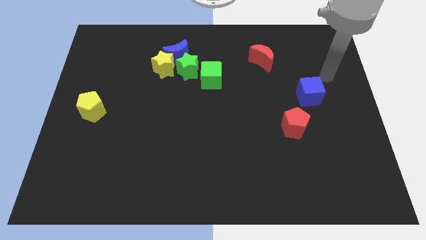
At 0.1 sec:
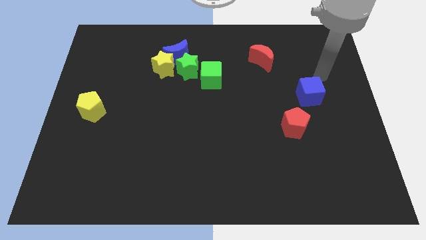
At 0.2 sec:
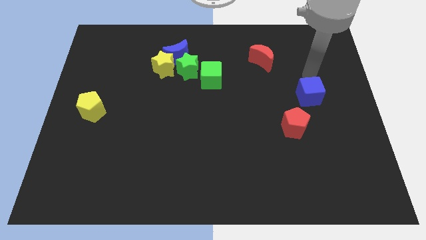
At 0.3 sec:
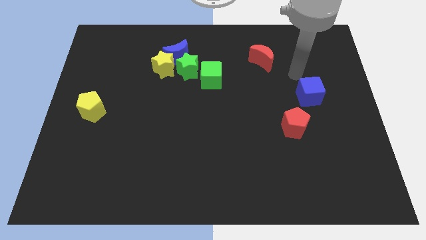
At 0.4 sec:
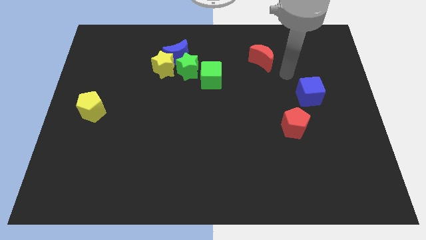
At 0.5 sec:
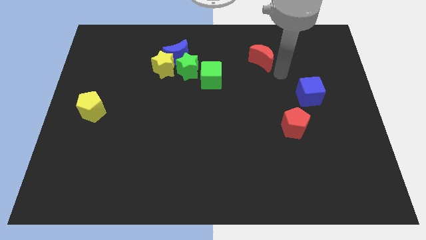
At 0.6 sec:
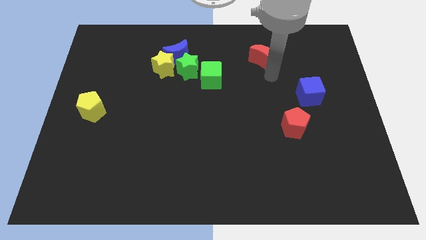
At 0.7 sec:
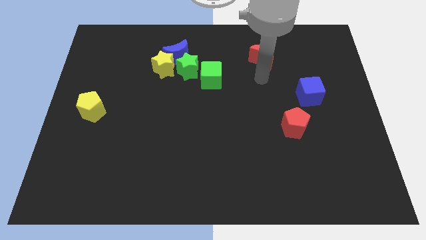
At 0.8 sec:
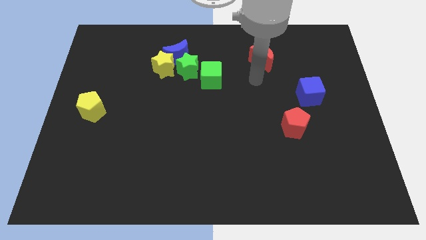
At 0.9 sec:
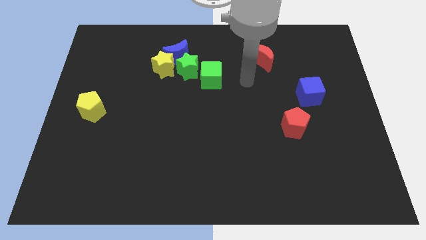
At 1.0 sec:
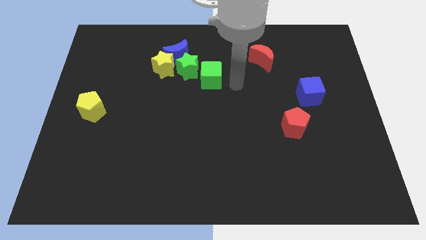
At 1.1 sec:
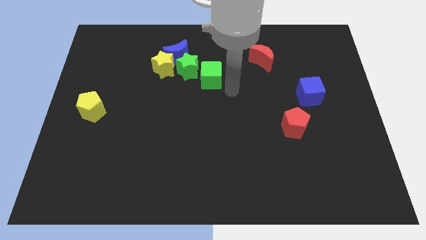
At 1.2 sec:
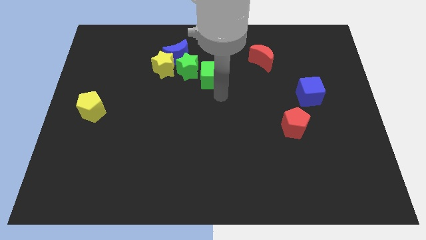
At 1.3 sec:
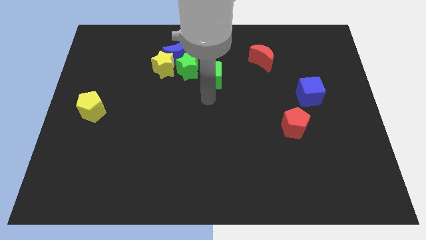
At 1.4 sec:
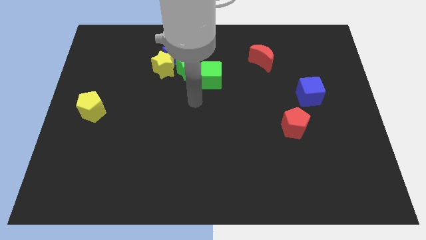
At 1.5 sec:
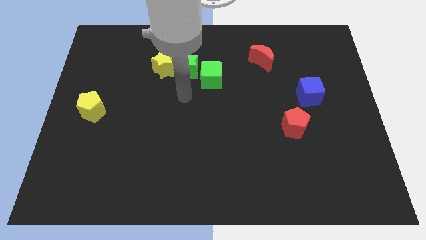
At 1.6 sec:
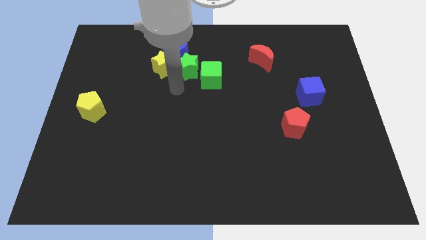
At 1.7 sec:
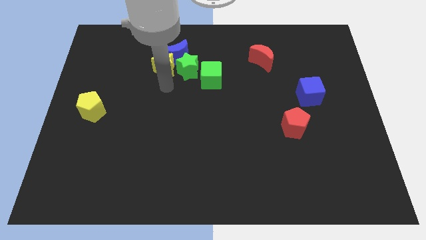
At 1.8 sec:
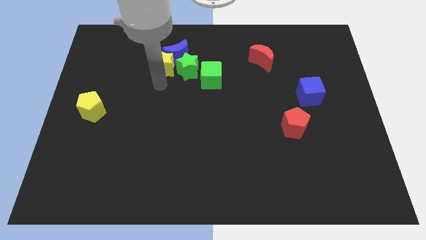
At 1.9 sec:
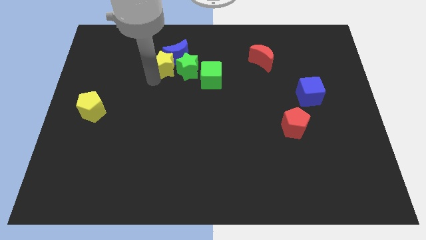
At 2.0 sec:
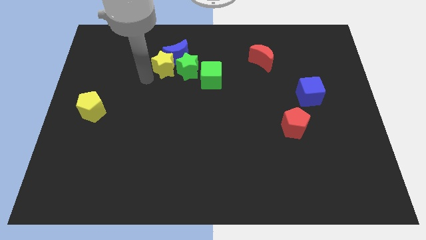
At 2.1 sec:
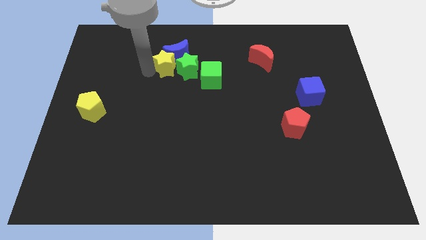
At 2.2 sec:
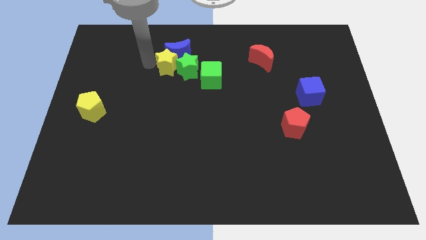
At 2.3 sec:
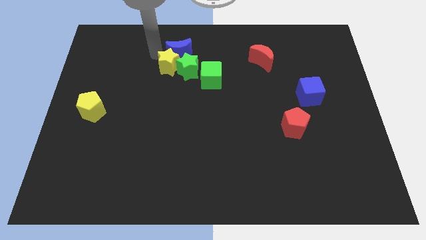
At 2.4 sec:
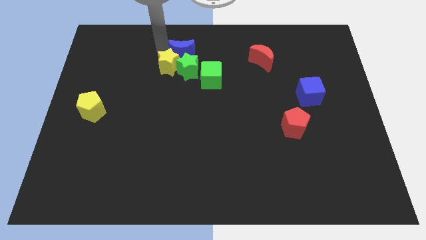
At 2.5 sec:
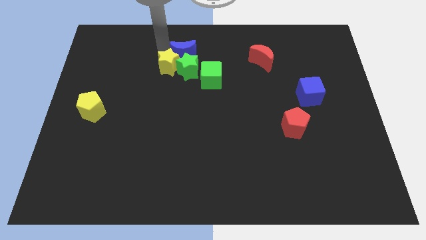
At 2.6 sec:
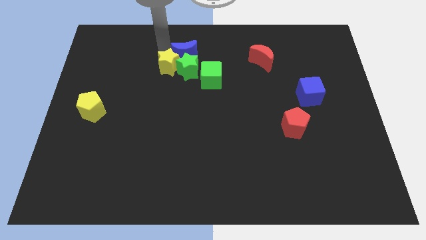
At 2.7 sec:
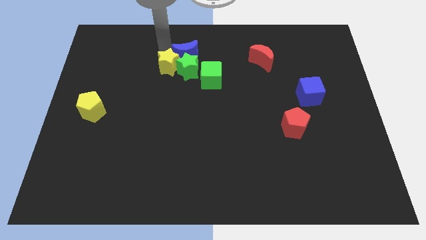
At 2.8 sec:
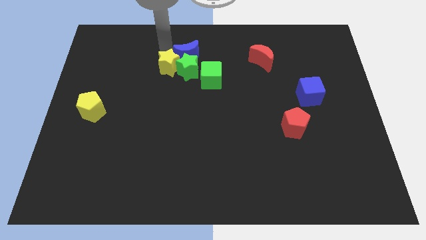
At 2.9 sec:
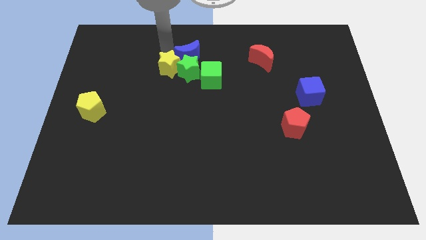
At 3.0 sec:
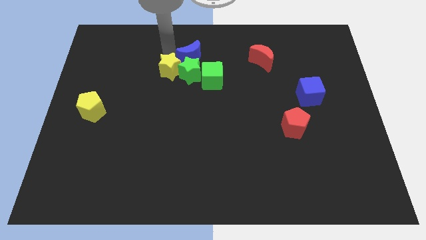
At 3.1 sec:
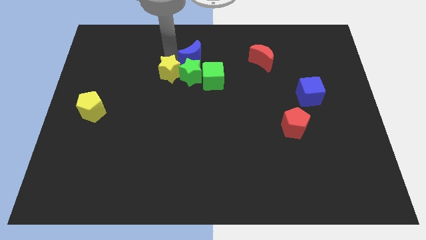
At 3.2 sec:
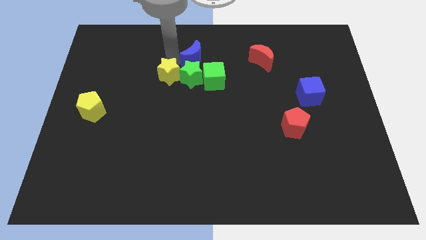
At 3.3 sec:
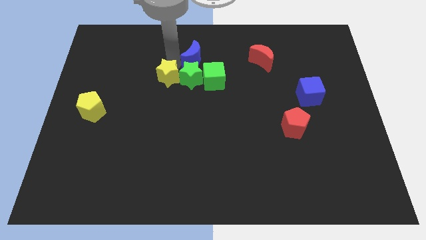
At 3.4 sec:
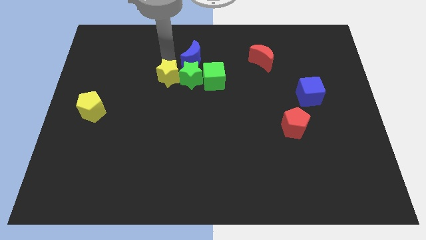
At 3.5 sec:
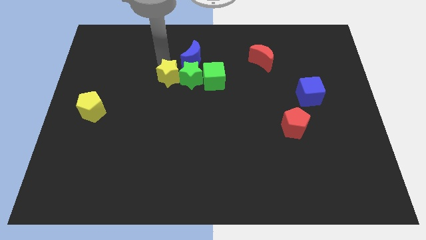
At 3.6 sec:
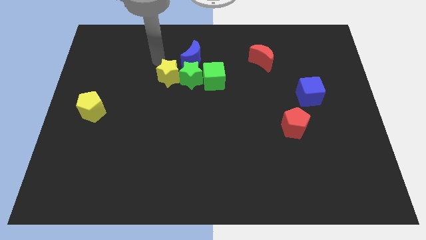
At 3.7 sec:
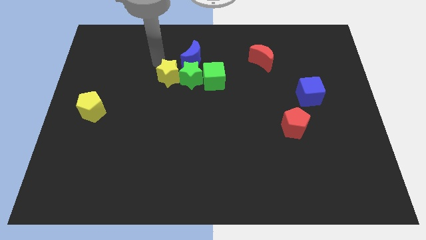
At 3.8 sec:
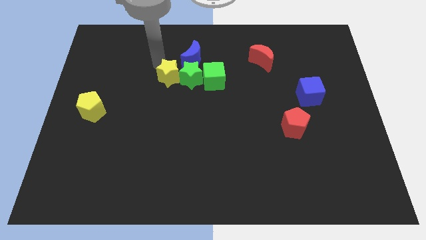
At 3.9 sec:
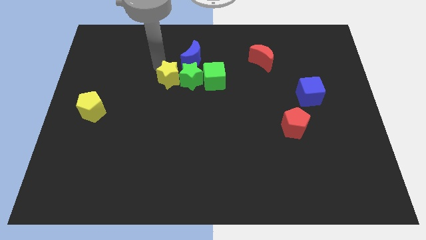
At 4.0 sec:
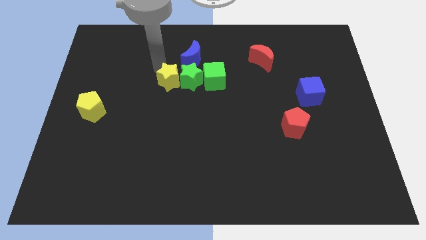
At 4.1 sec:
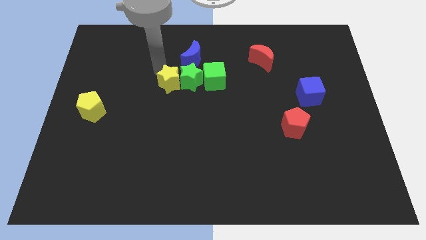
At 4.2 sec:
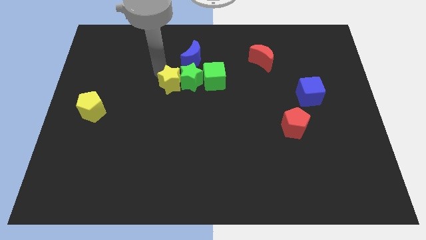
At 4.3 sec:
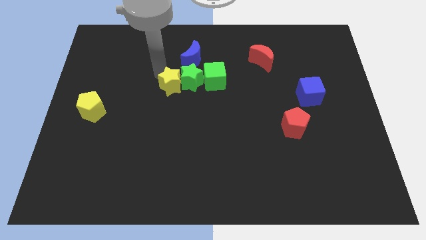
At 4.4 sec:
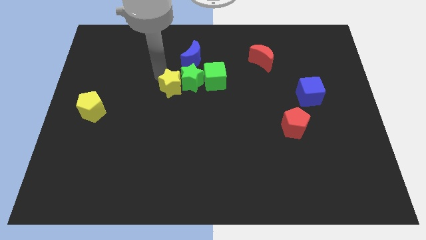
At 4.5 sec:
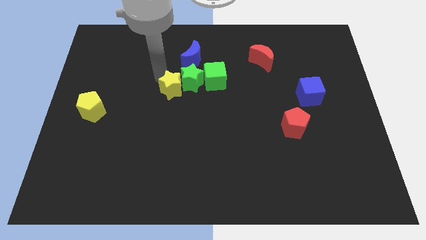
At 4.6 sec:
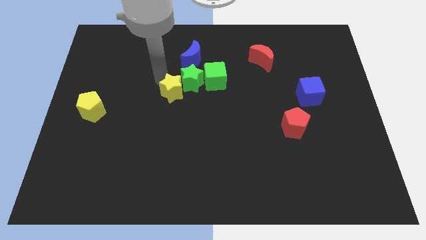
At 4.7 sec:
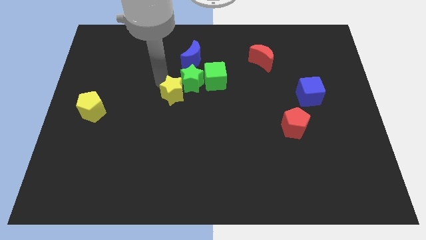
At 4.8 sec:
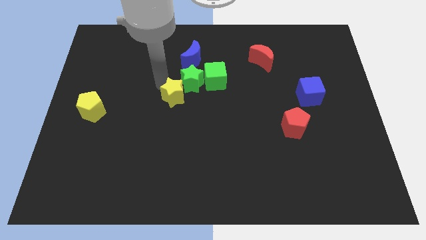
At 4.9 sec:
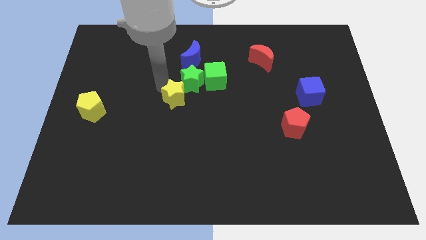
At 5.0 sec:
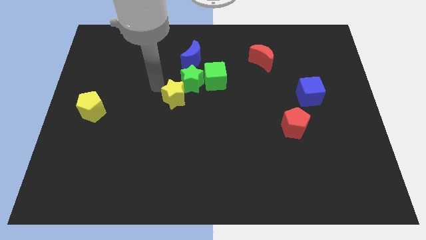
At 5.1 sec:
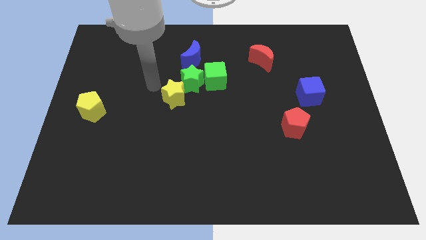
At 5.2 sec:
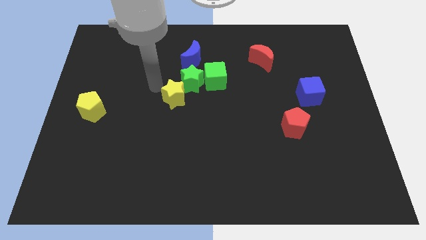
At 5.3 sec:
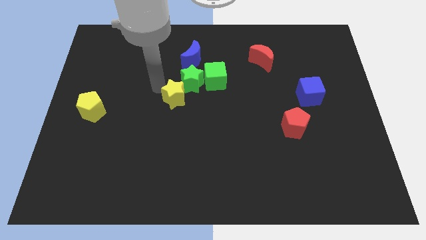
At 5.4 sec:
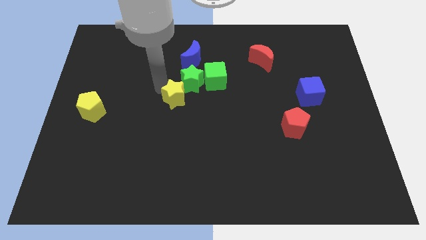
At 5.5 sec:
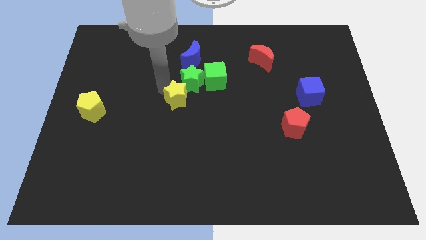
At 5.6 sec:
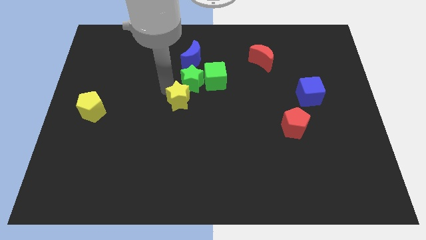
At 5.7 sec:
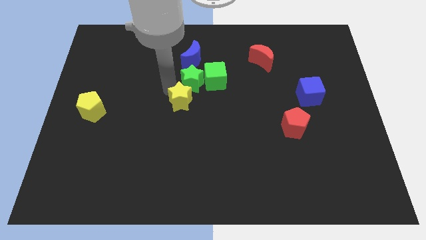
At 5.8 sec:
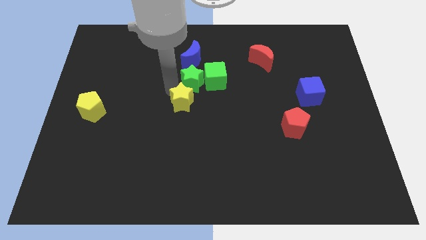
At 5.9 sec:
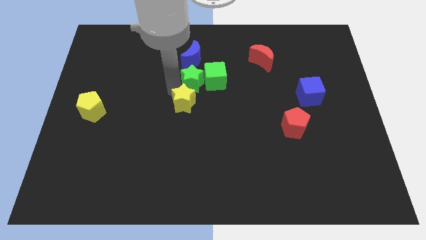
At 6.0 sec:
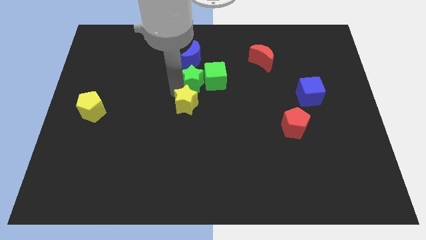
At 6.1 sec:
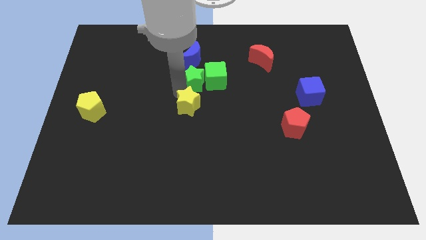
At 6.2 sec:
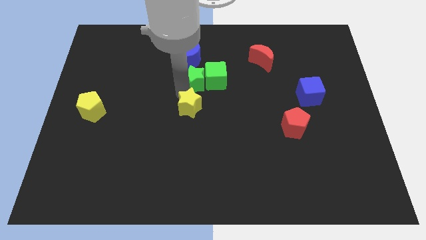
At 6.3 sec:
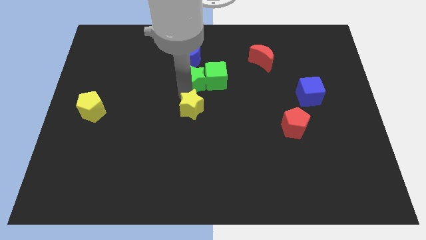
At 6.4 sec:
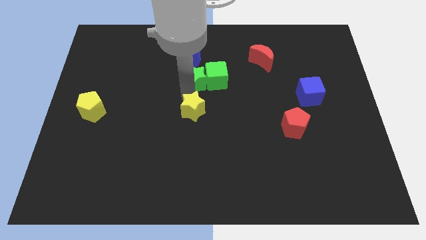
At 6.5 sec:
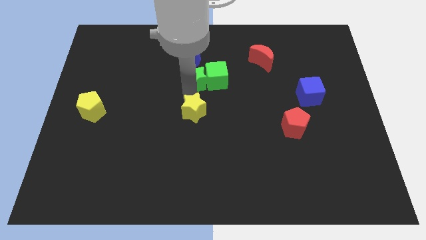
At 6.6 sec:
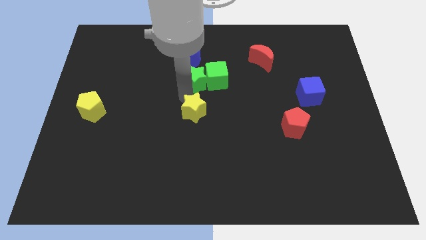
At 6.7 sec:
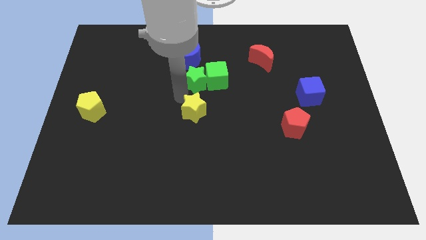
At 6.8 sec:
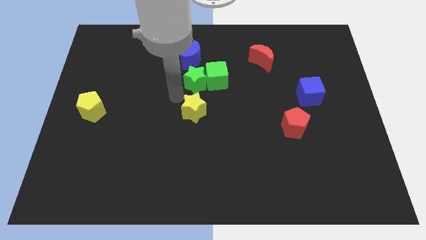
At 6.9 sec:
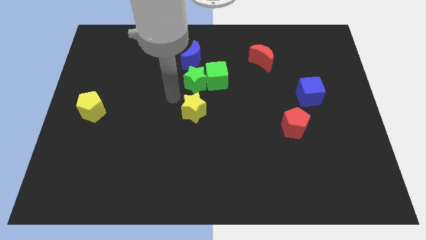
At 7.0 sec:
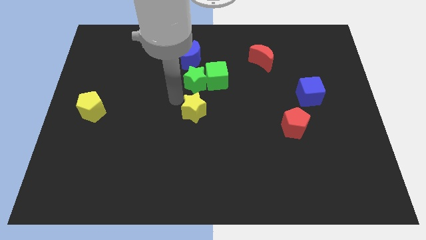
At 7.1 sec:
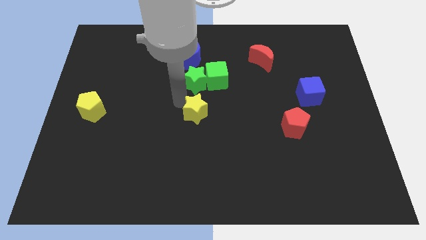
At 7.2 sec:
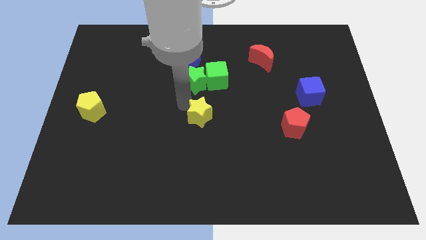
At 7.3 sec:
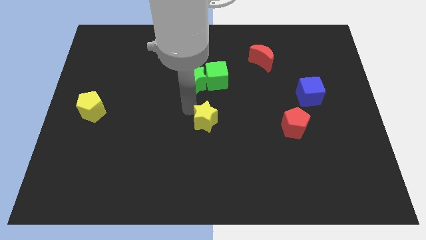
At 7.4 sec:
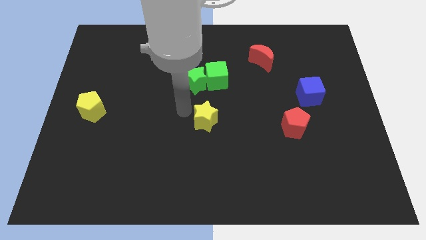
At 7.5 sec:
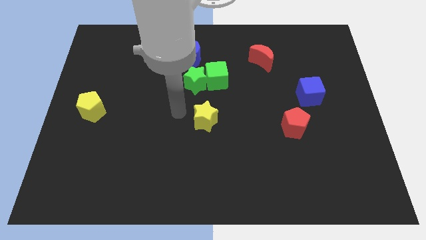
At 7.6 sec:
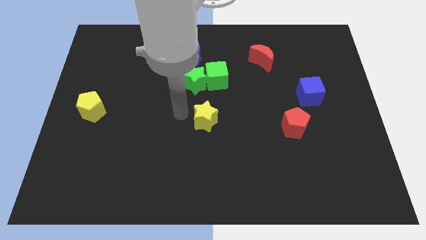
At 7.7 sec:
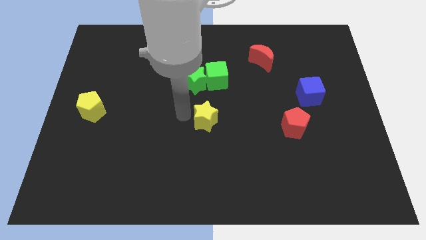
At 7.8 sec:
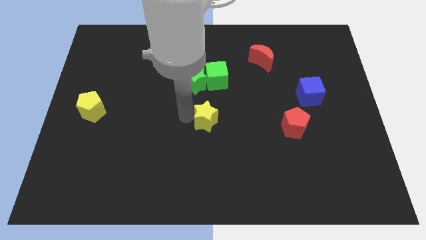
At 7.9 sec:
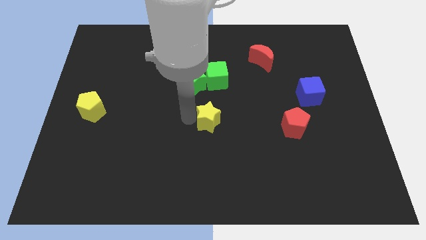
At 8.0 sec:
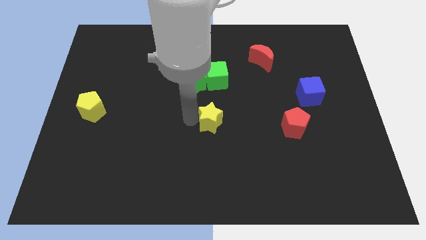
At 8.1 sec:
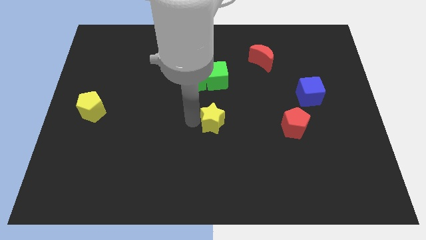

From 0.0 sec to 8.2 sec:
move the yellow star diagonally downwards and to the right
